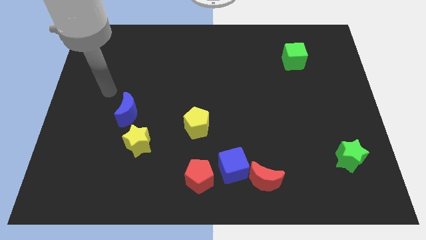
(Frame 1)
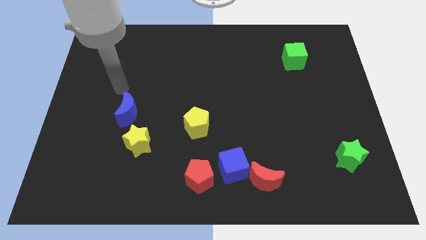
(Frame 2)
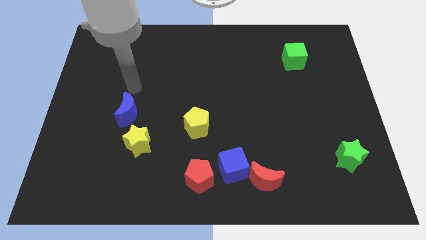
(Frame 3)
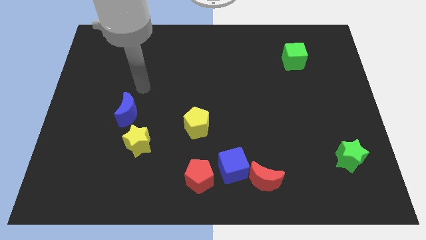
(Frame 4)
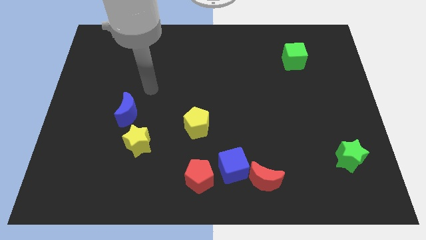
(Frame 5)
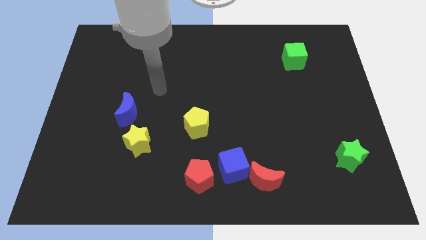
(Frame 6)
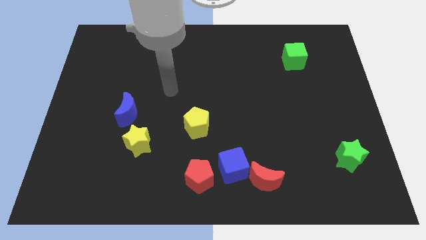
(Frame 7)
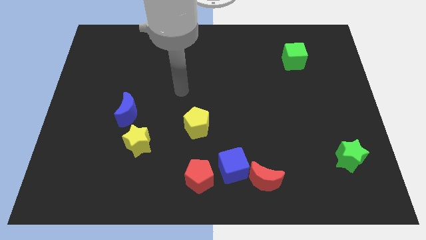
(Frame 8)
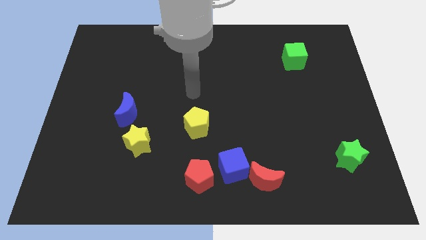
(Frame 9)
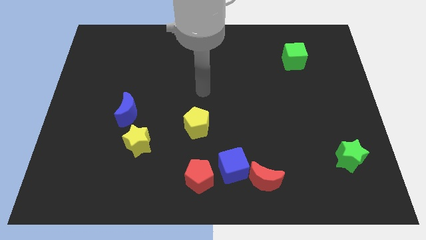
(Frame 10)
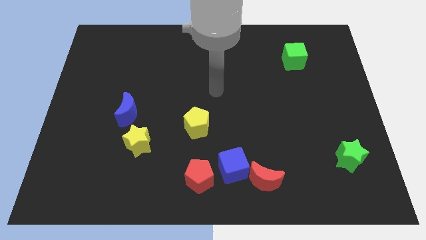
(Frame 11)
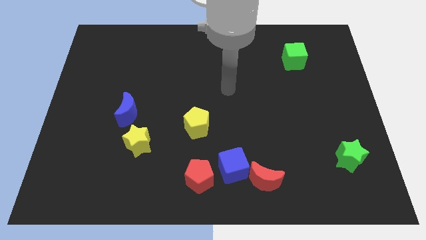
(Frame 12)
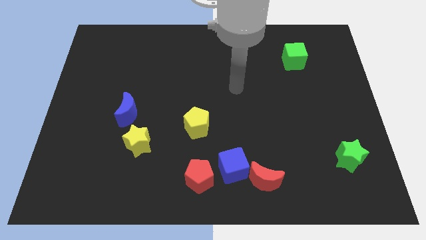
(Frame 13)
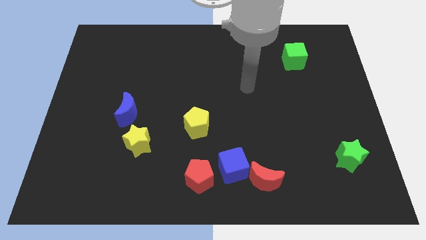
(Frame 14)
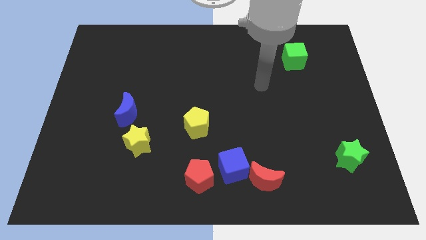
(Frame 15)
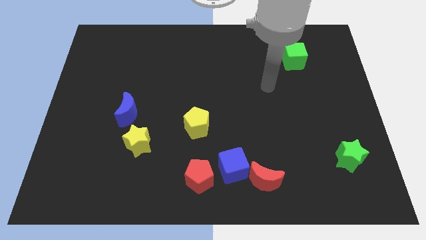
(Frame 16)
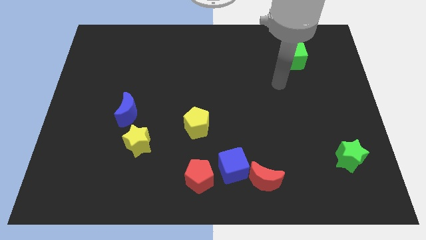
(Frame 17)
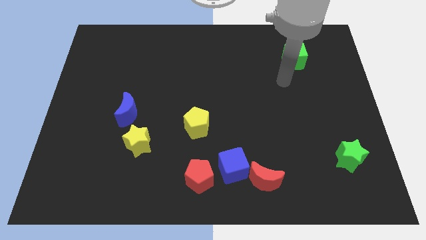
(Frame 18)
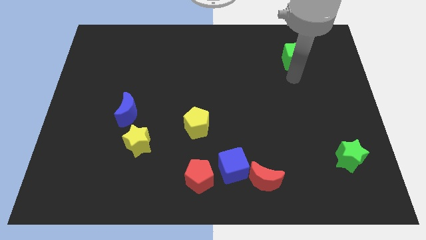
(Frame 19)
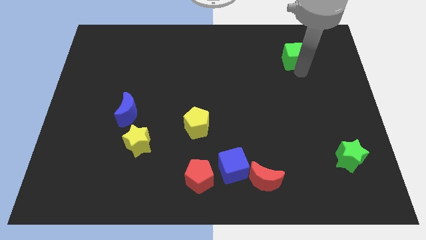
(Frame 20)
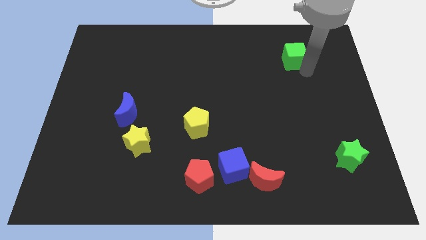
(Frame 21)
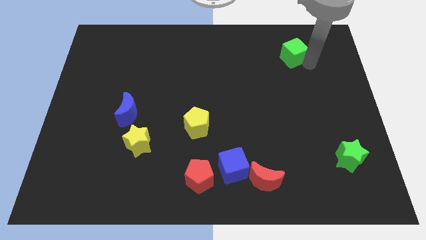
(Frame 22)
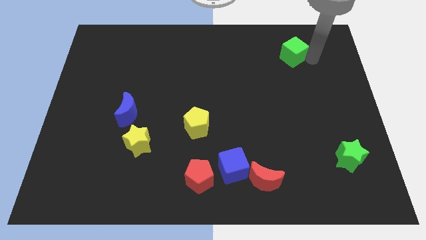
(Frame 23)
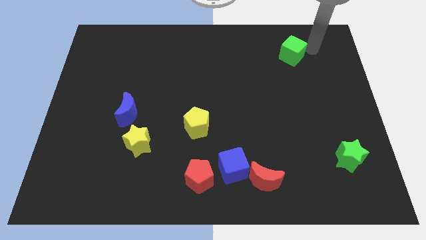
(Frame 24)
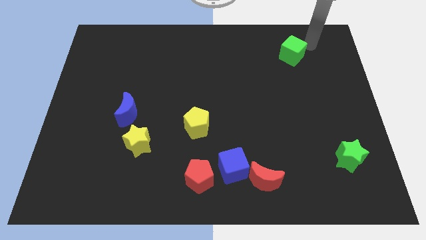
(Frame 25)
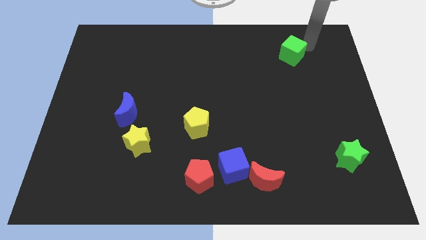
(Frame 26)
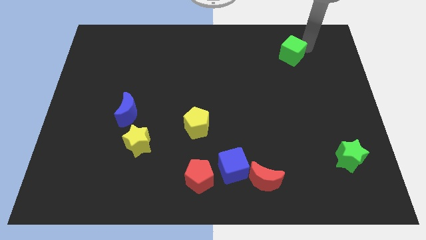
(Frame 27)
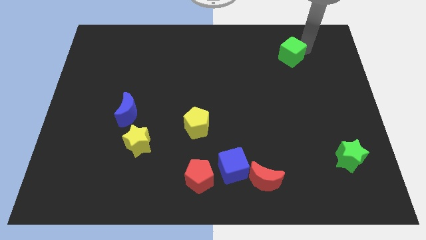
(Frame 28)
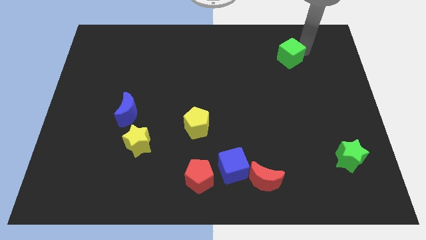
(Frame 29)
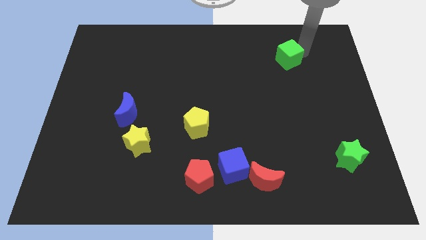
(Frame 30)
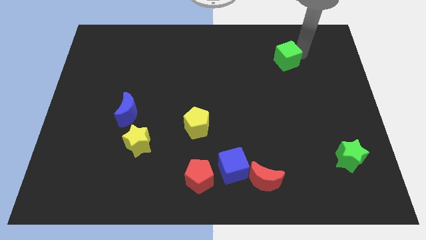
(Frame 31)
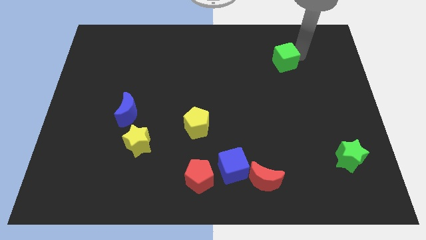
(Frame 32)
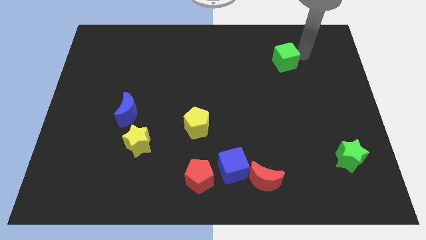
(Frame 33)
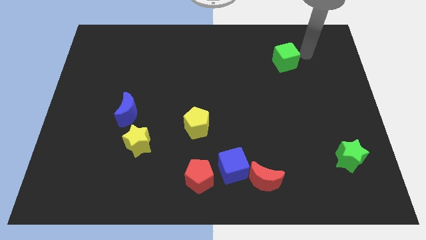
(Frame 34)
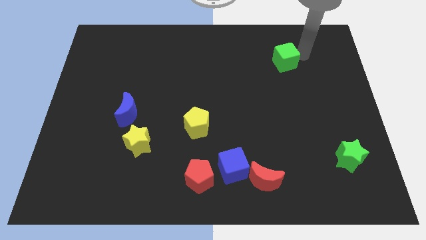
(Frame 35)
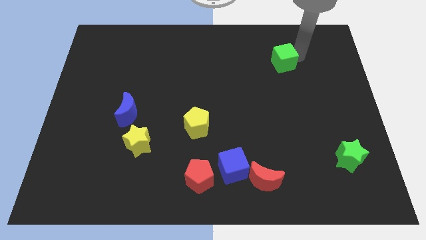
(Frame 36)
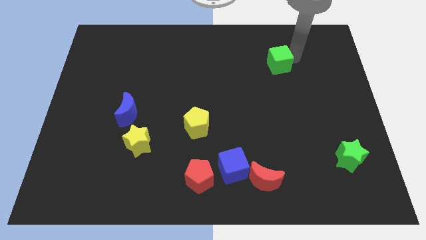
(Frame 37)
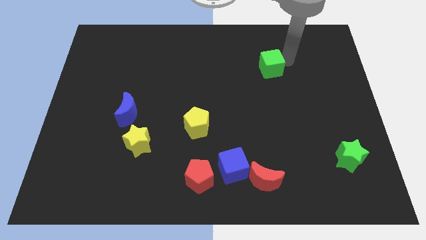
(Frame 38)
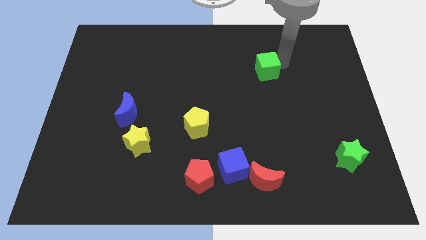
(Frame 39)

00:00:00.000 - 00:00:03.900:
slightly push the green cube to the left

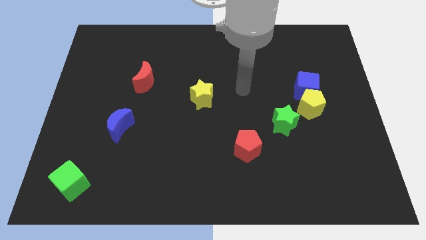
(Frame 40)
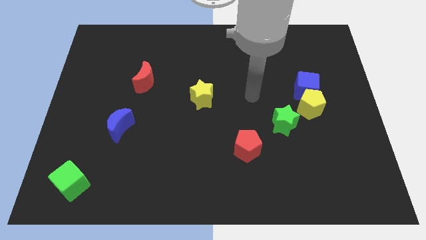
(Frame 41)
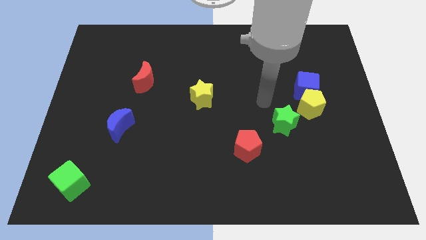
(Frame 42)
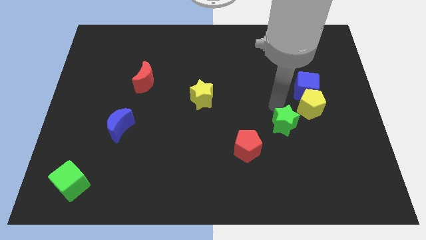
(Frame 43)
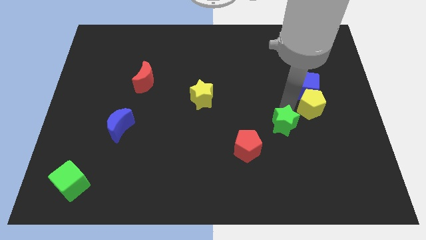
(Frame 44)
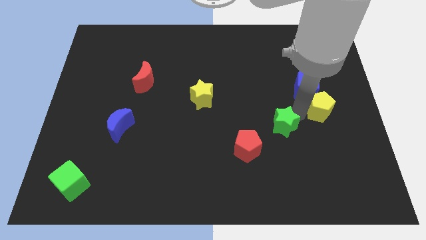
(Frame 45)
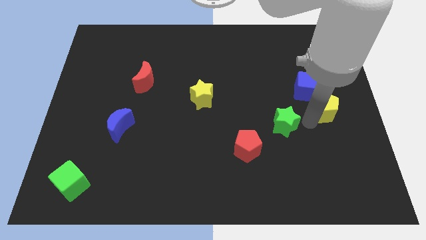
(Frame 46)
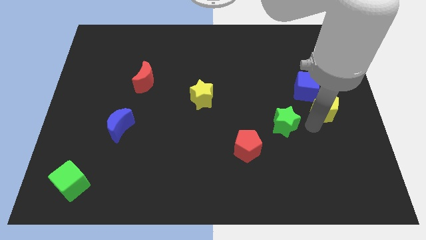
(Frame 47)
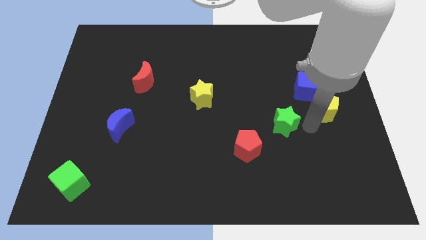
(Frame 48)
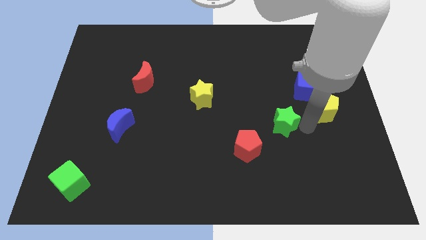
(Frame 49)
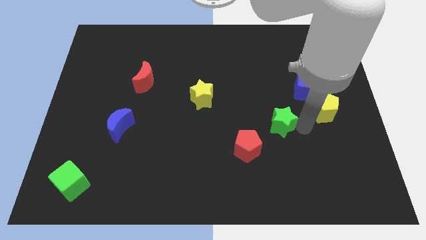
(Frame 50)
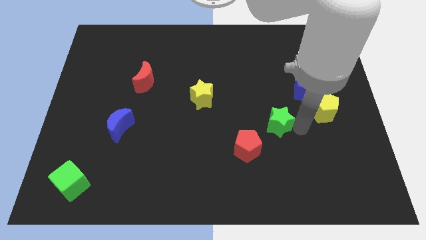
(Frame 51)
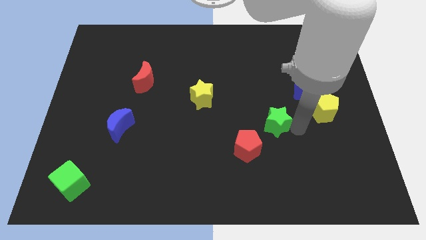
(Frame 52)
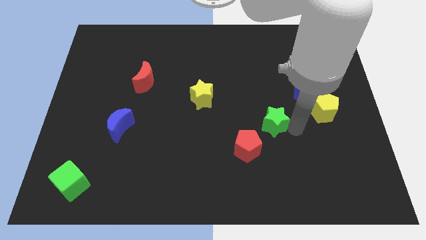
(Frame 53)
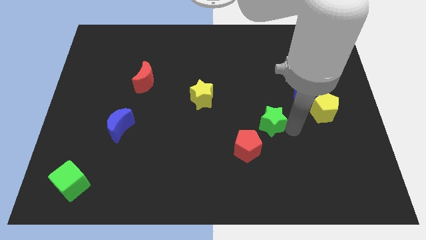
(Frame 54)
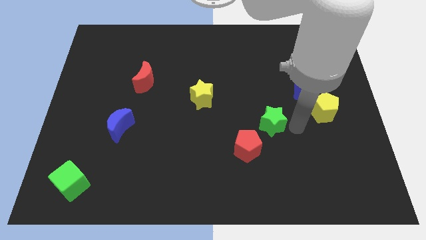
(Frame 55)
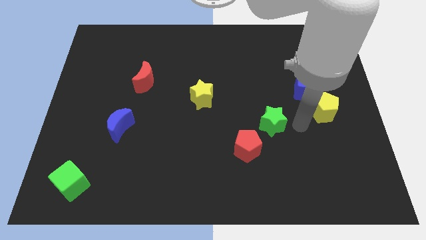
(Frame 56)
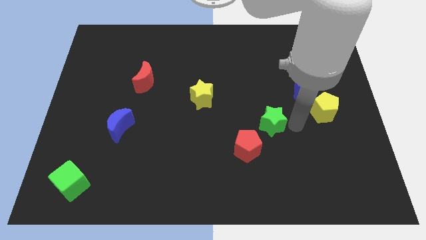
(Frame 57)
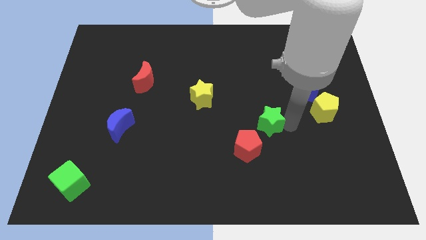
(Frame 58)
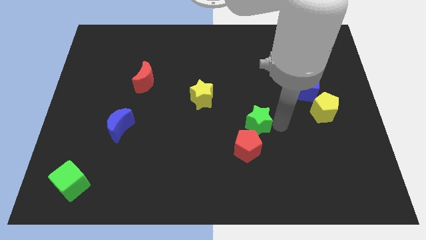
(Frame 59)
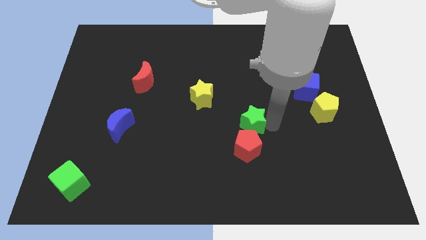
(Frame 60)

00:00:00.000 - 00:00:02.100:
move the green star to the left a little

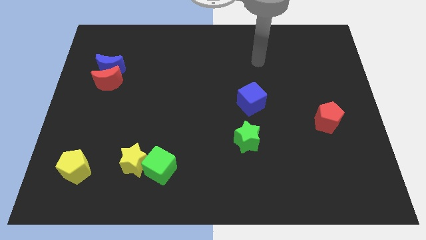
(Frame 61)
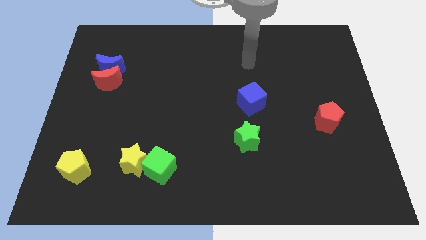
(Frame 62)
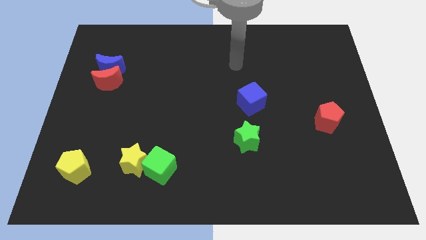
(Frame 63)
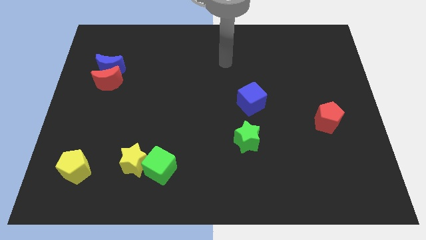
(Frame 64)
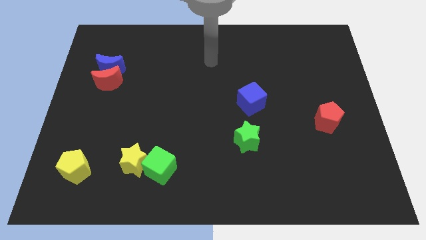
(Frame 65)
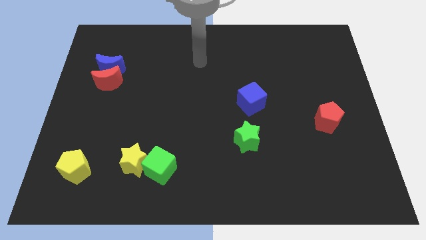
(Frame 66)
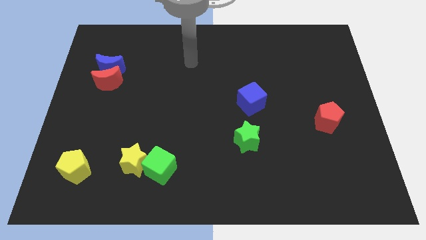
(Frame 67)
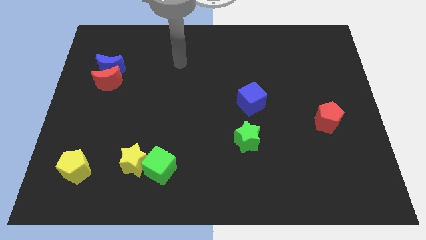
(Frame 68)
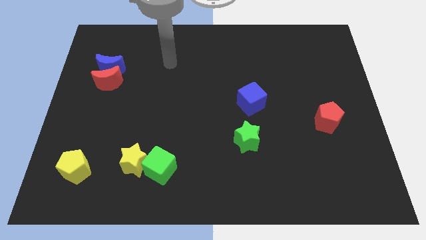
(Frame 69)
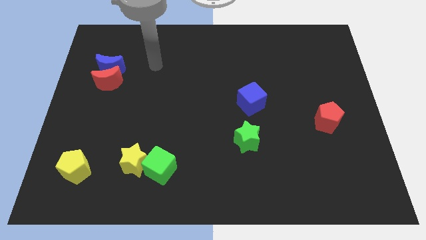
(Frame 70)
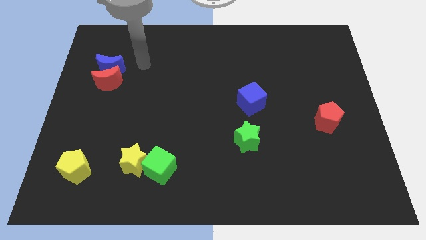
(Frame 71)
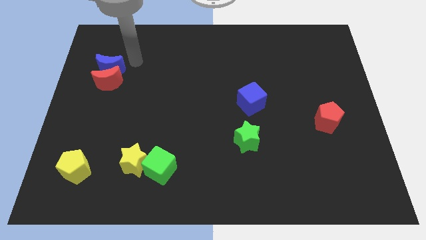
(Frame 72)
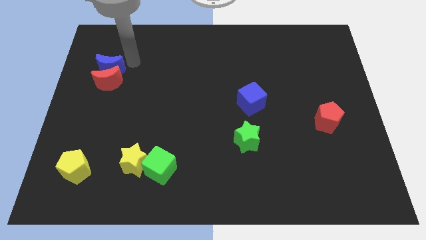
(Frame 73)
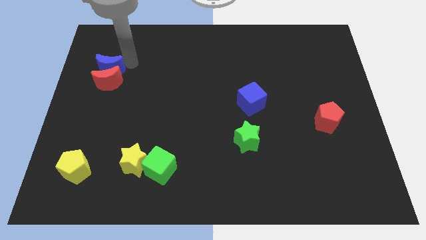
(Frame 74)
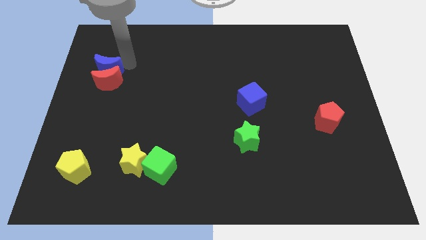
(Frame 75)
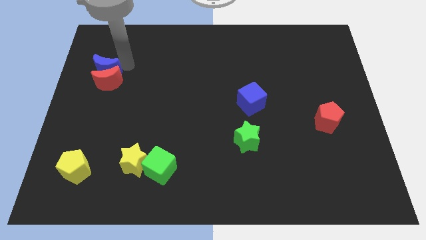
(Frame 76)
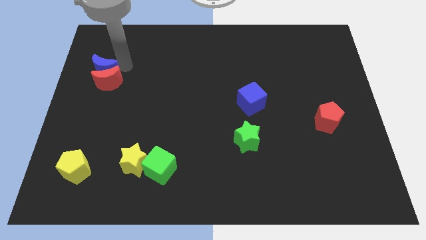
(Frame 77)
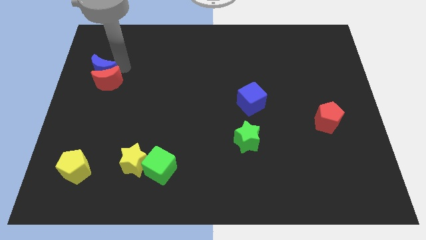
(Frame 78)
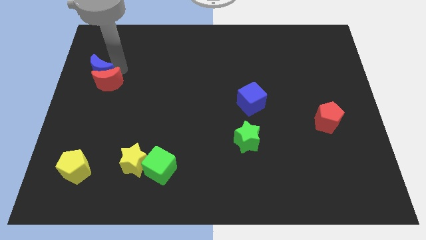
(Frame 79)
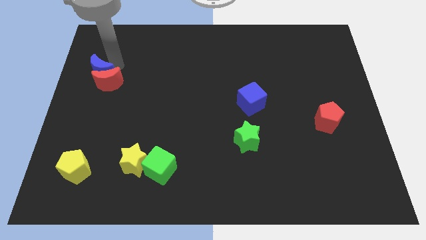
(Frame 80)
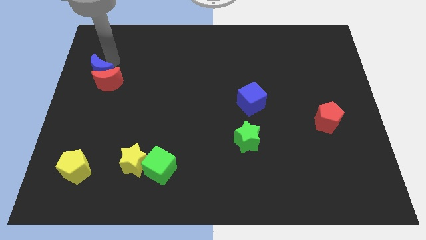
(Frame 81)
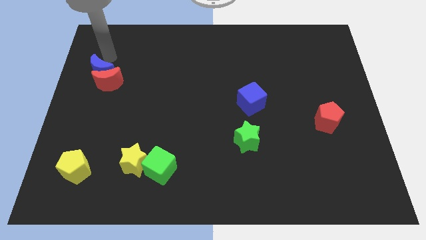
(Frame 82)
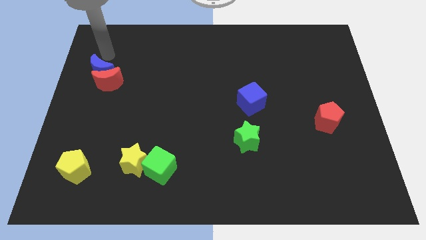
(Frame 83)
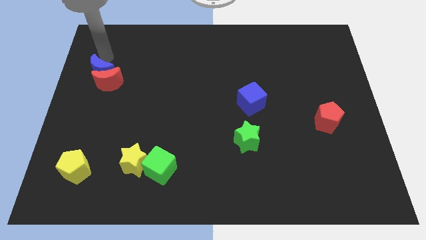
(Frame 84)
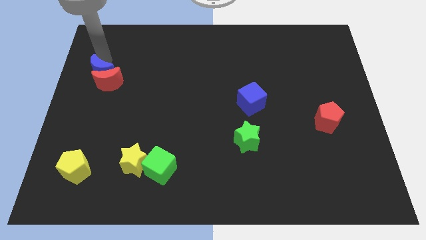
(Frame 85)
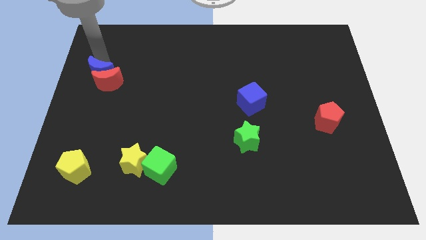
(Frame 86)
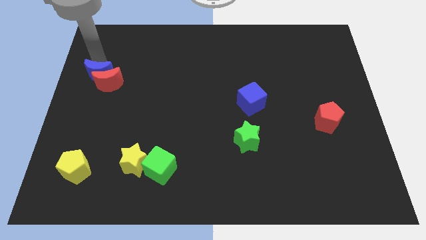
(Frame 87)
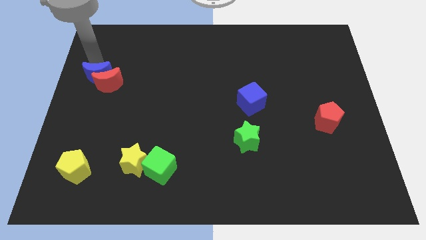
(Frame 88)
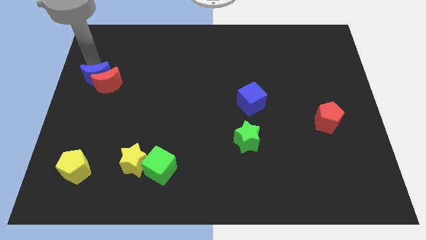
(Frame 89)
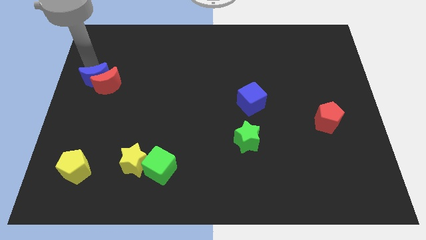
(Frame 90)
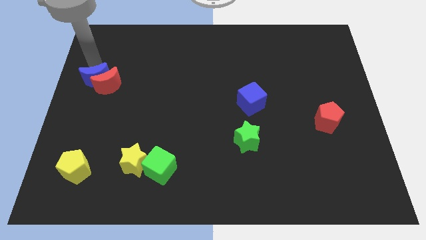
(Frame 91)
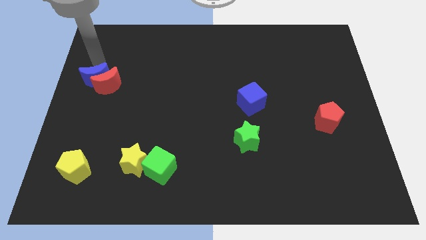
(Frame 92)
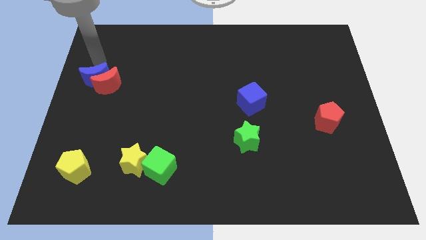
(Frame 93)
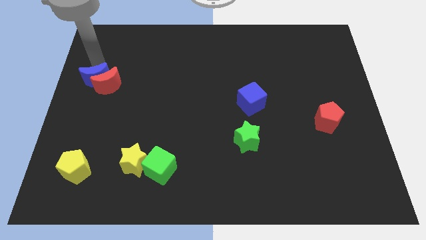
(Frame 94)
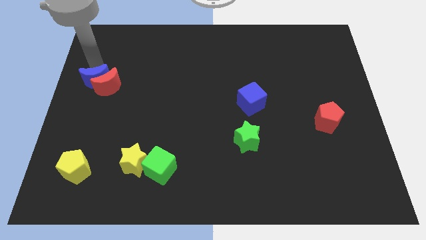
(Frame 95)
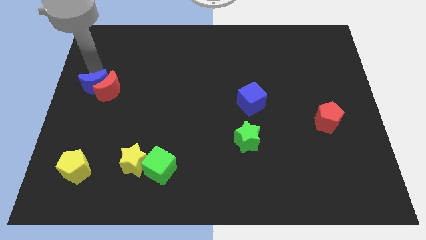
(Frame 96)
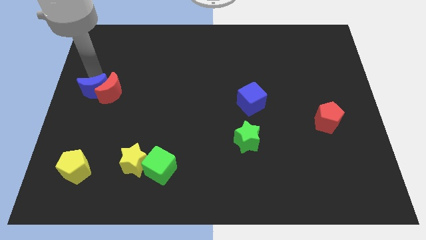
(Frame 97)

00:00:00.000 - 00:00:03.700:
slightly slide the blue moon down
